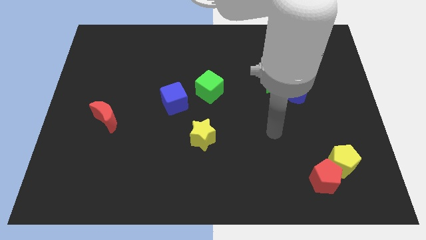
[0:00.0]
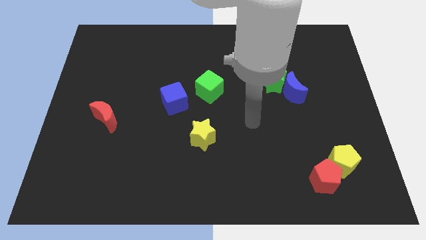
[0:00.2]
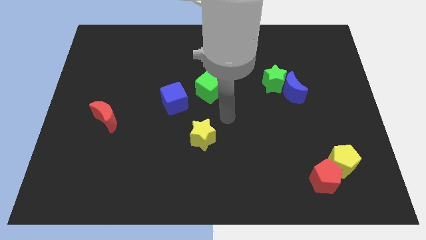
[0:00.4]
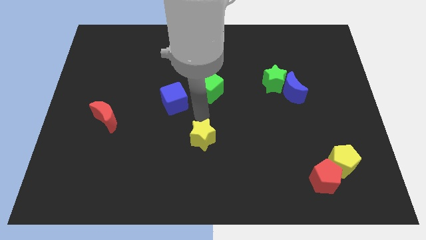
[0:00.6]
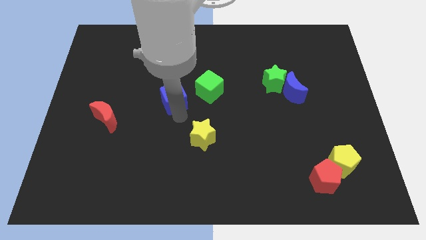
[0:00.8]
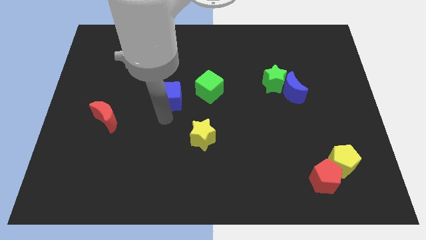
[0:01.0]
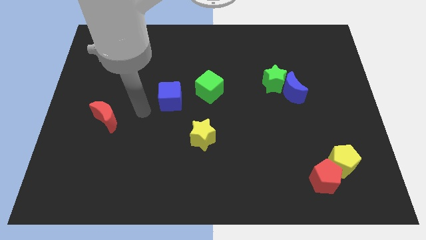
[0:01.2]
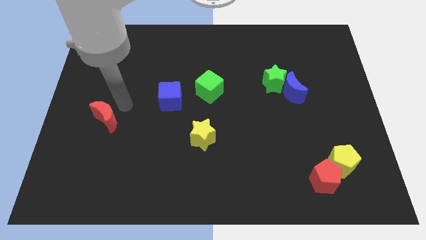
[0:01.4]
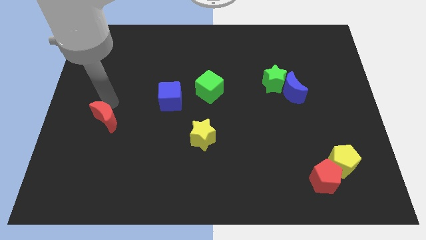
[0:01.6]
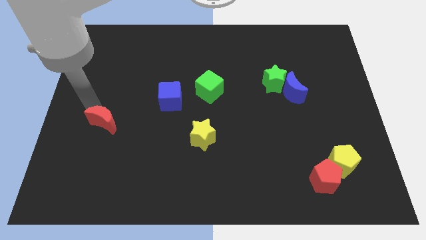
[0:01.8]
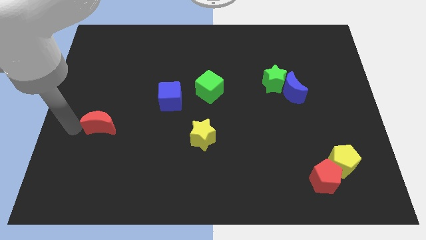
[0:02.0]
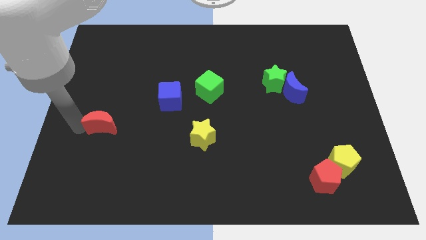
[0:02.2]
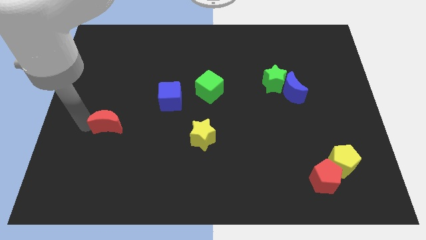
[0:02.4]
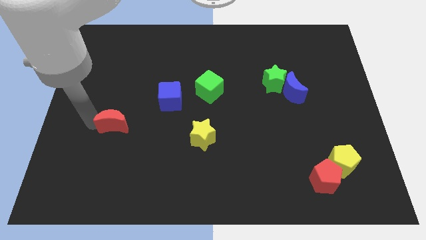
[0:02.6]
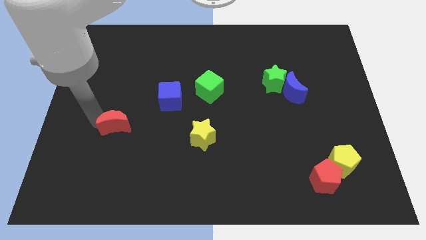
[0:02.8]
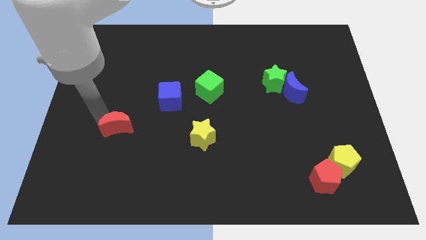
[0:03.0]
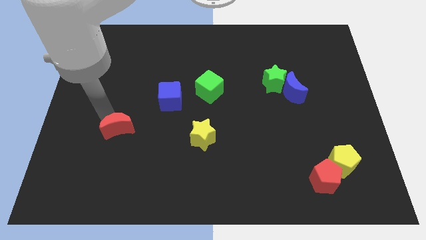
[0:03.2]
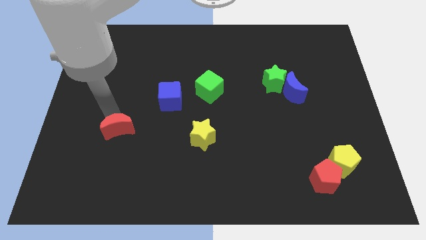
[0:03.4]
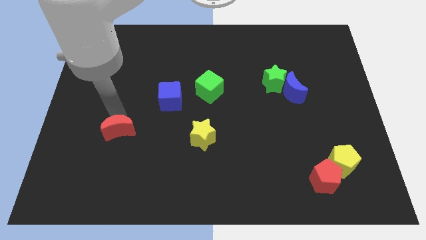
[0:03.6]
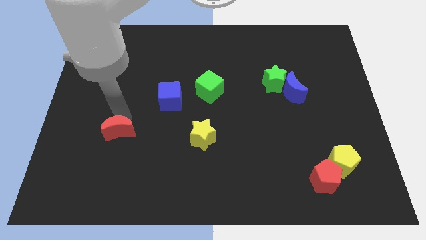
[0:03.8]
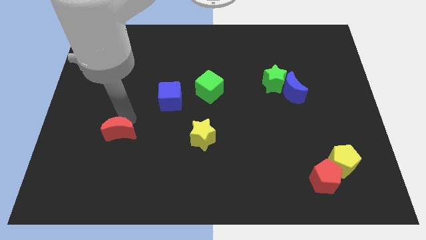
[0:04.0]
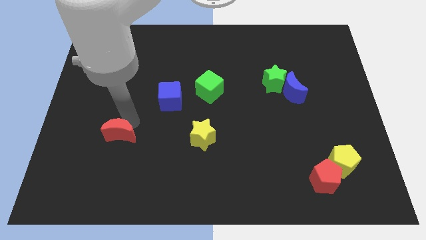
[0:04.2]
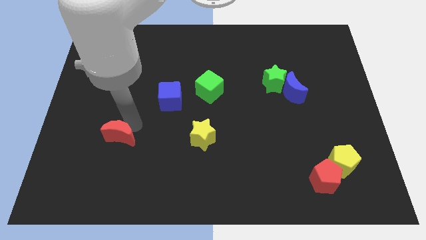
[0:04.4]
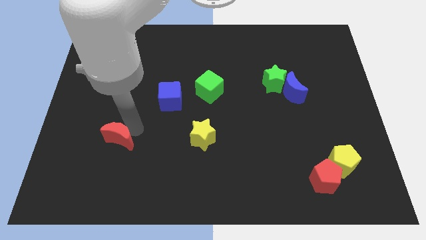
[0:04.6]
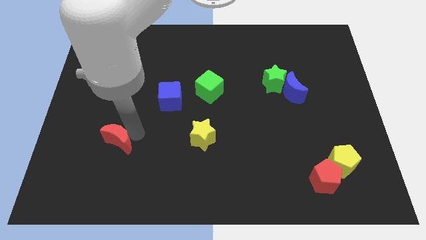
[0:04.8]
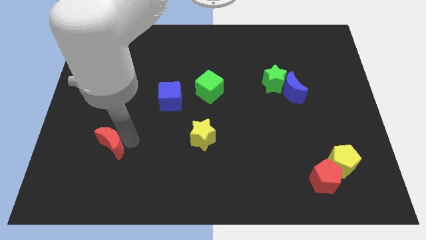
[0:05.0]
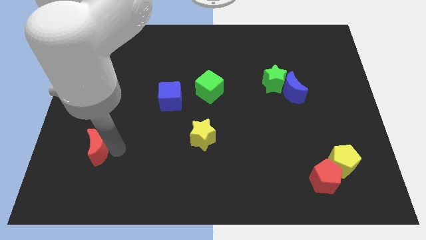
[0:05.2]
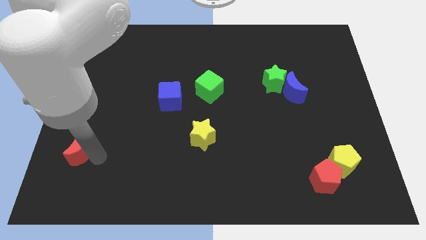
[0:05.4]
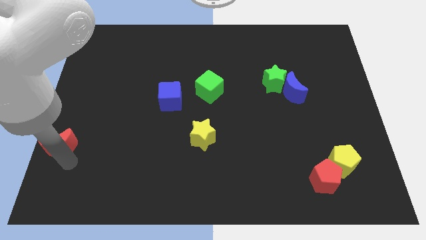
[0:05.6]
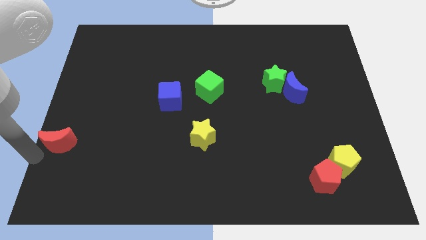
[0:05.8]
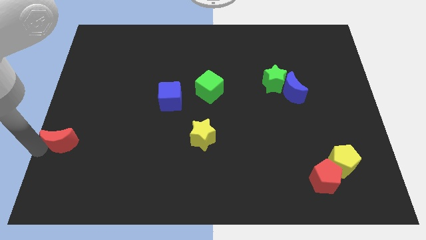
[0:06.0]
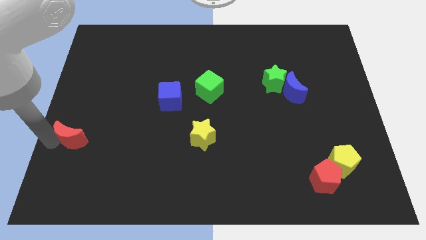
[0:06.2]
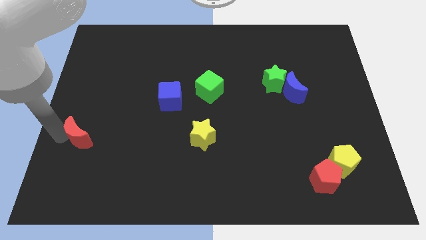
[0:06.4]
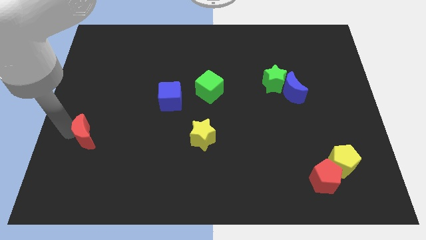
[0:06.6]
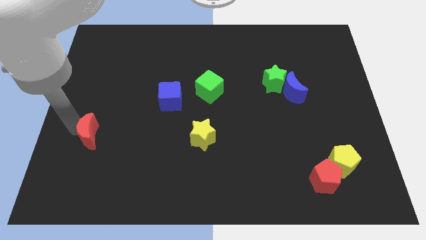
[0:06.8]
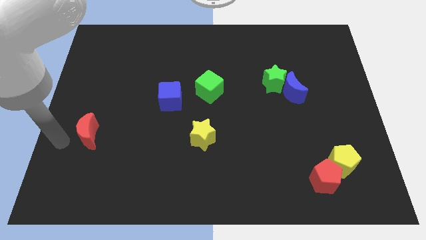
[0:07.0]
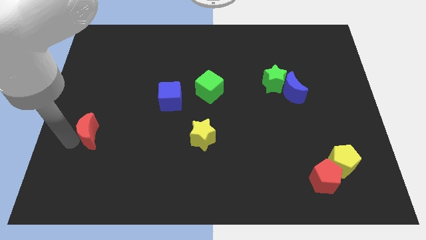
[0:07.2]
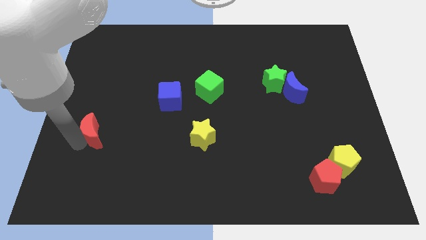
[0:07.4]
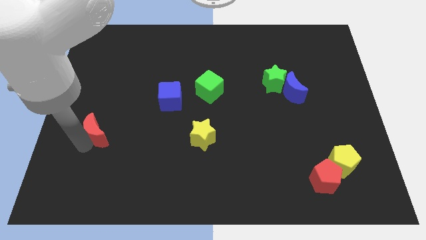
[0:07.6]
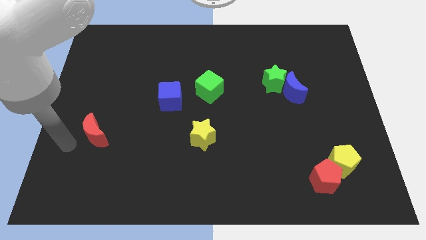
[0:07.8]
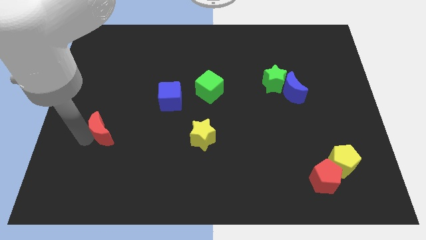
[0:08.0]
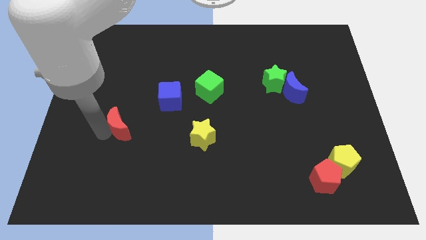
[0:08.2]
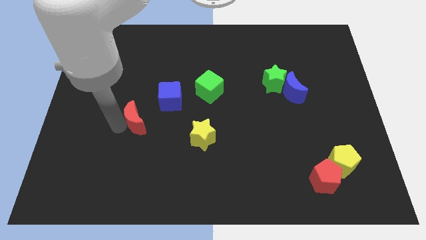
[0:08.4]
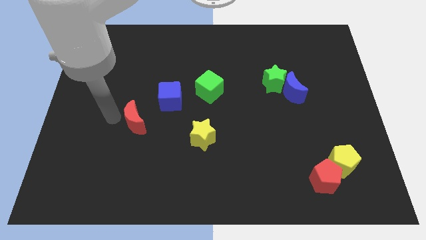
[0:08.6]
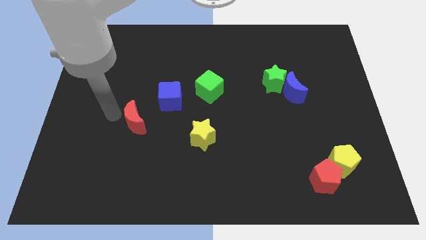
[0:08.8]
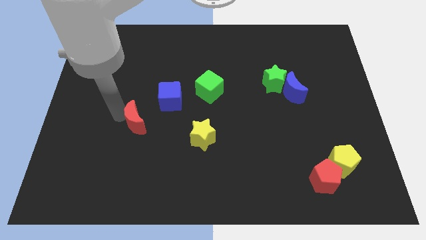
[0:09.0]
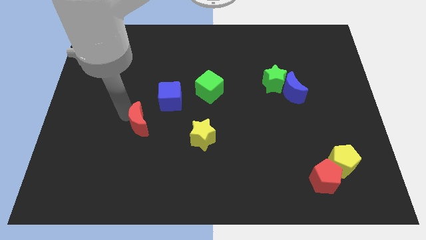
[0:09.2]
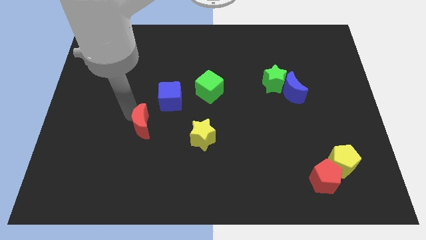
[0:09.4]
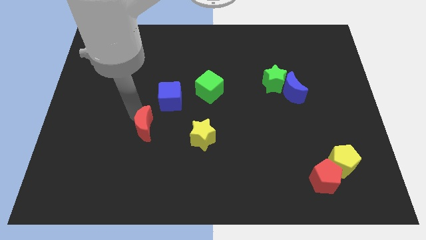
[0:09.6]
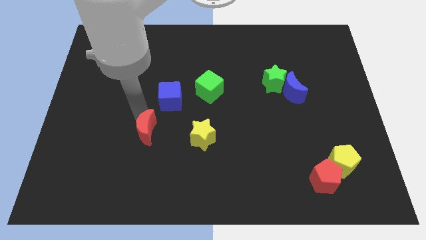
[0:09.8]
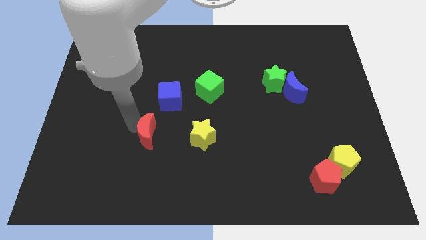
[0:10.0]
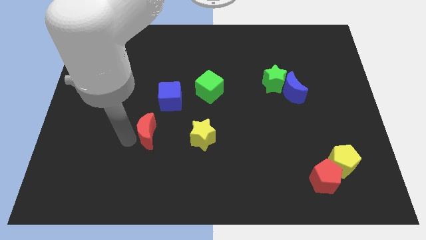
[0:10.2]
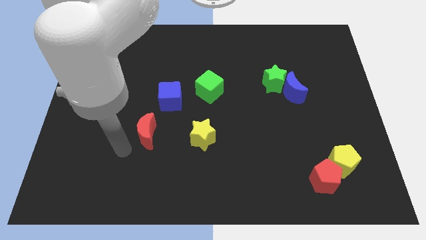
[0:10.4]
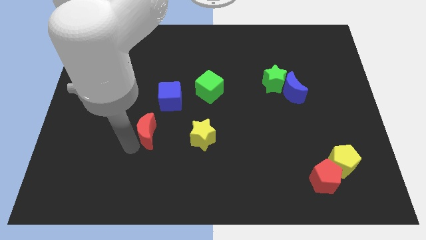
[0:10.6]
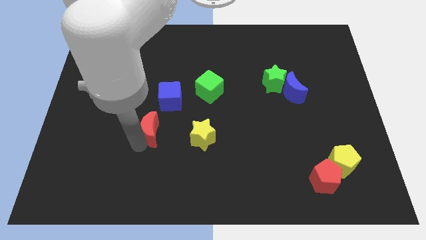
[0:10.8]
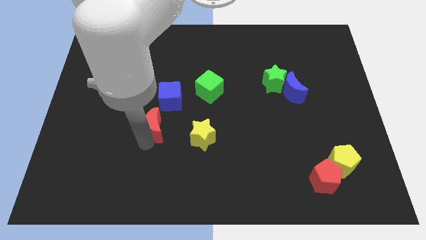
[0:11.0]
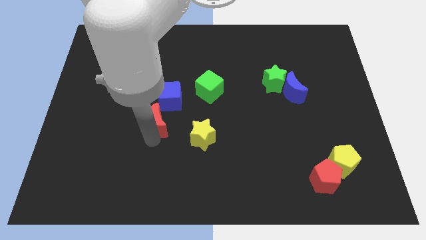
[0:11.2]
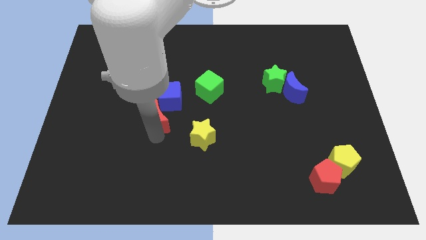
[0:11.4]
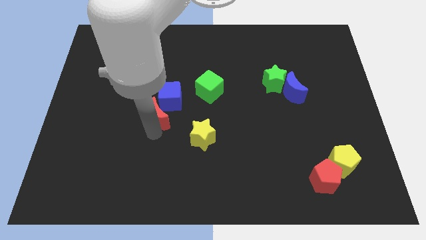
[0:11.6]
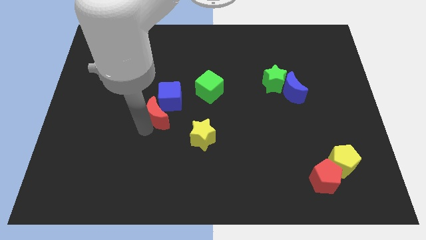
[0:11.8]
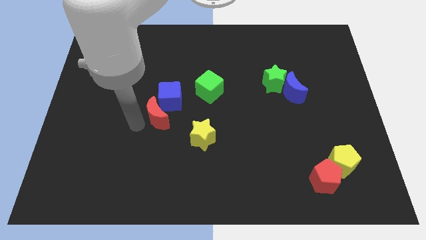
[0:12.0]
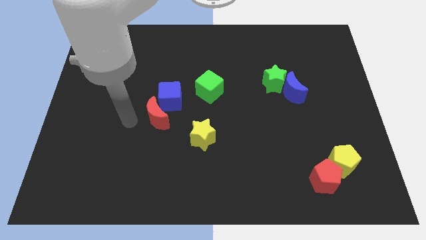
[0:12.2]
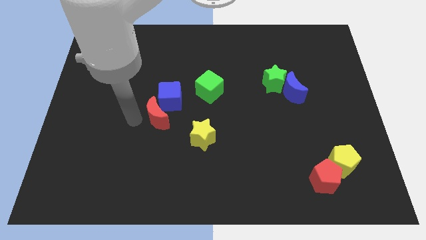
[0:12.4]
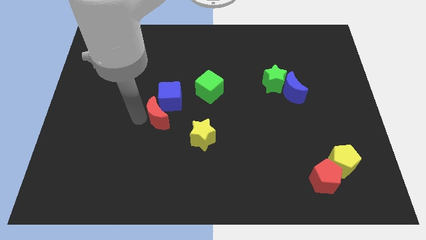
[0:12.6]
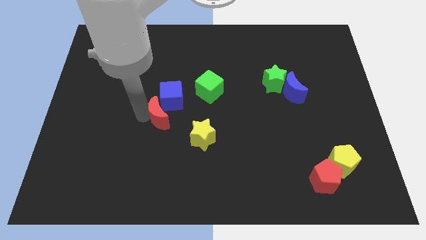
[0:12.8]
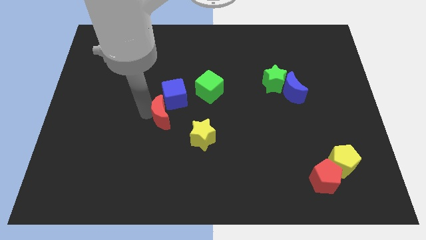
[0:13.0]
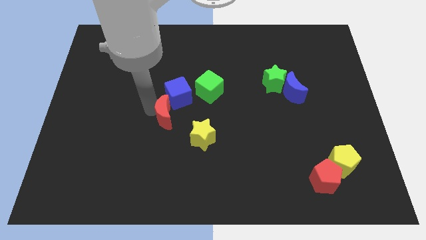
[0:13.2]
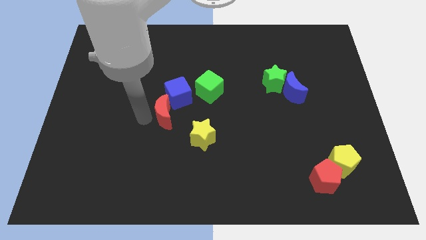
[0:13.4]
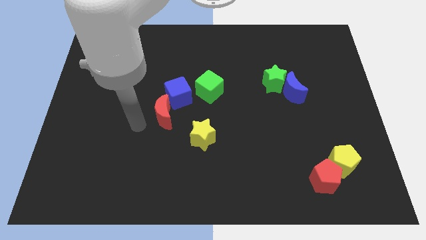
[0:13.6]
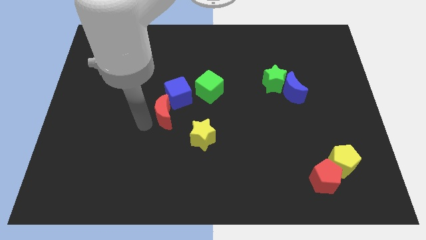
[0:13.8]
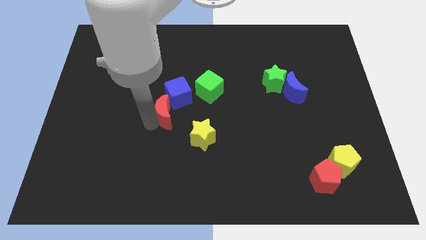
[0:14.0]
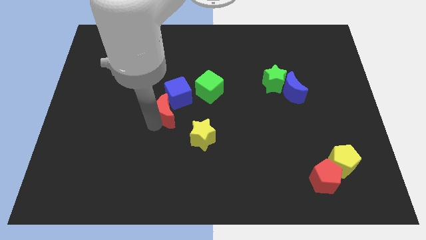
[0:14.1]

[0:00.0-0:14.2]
move the red moon to the bottom left of the green cube
